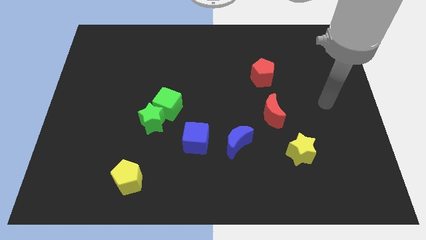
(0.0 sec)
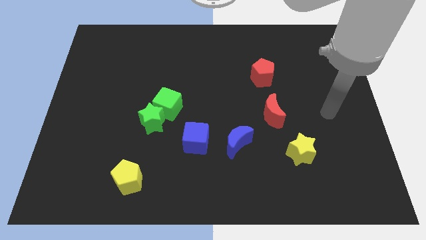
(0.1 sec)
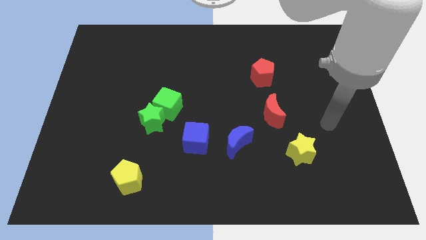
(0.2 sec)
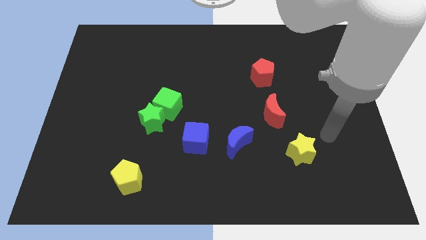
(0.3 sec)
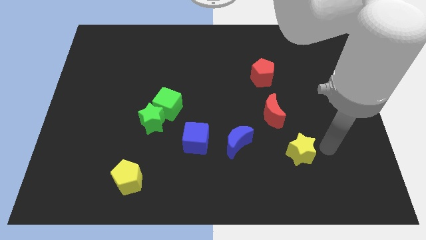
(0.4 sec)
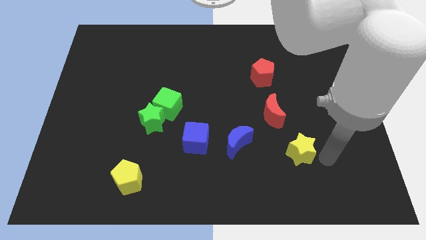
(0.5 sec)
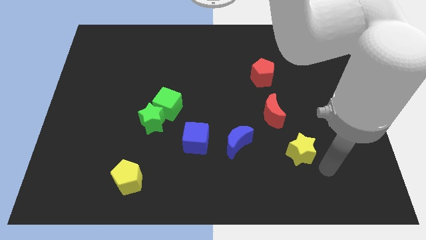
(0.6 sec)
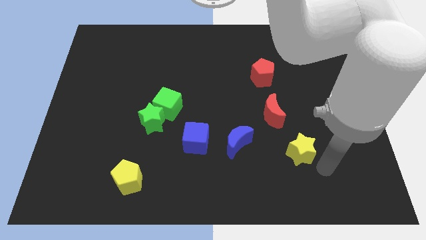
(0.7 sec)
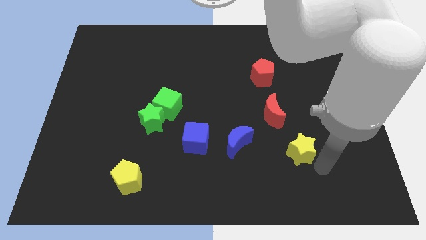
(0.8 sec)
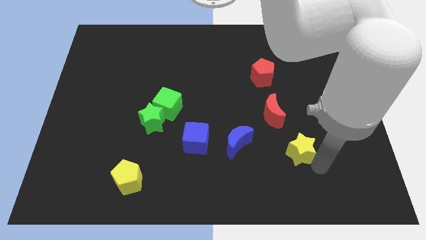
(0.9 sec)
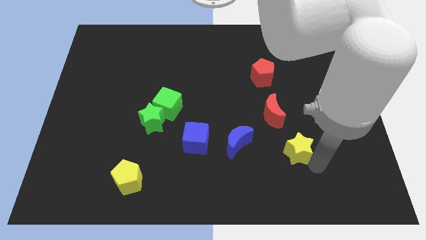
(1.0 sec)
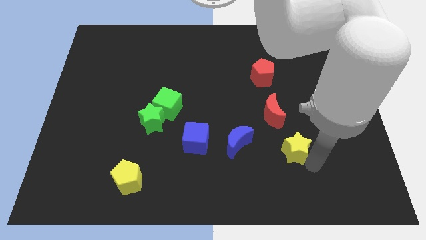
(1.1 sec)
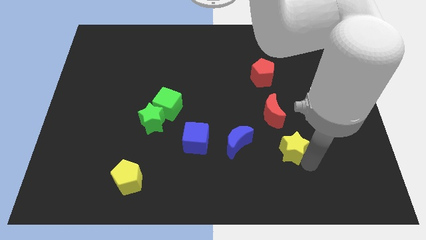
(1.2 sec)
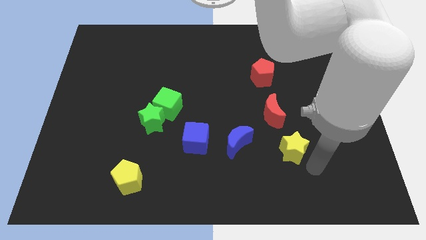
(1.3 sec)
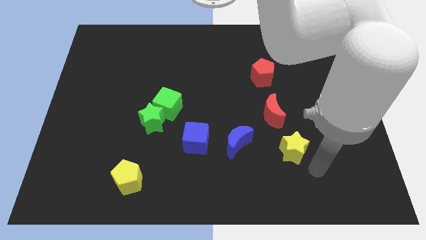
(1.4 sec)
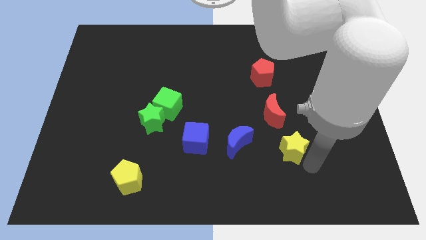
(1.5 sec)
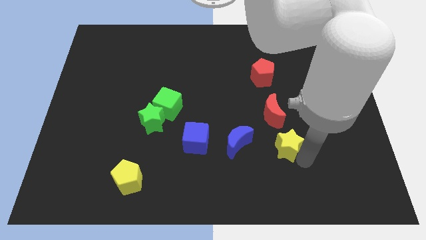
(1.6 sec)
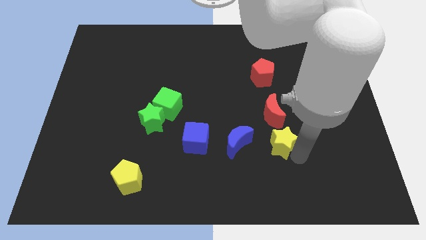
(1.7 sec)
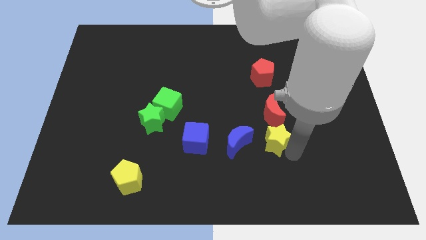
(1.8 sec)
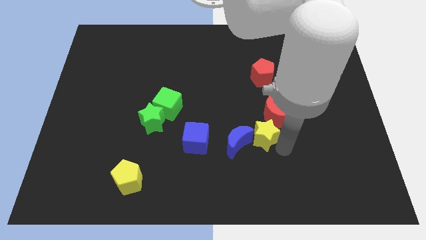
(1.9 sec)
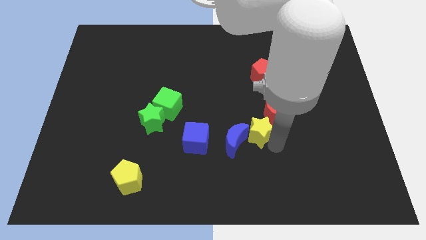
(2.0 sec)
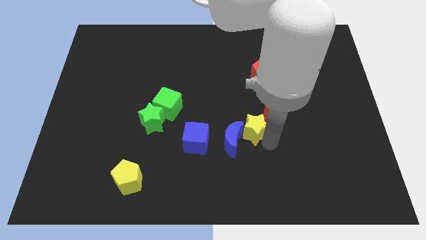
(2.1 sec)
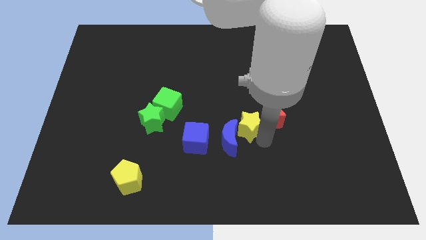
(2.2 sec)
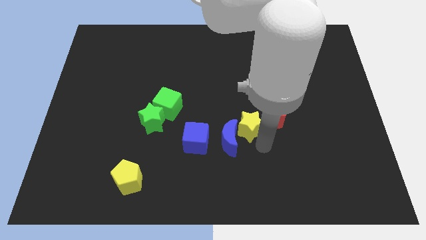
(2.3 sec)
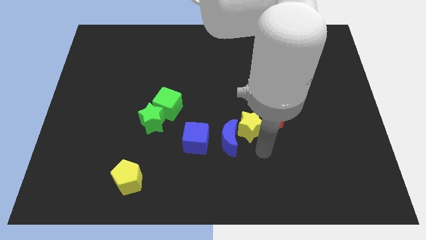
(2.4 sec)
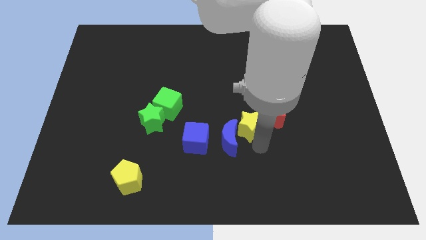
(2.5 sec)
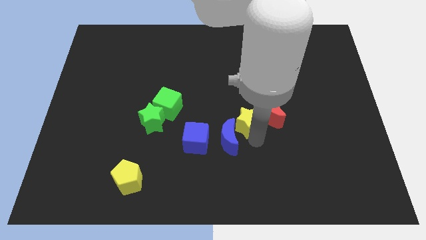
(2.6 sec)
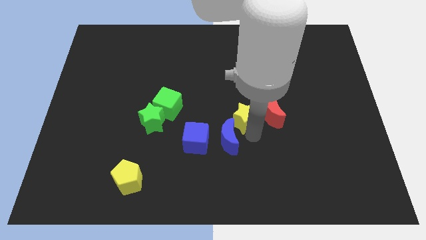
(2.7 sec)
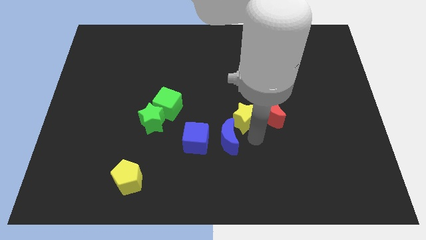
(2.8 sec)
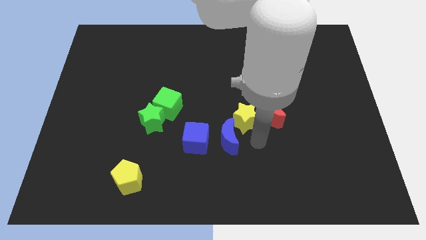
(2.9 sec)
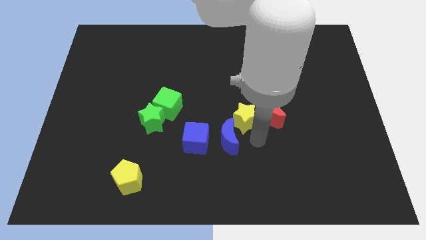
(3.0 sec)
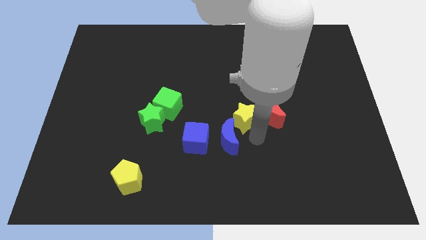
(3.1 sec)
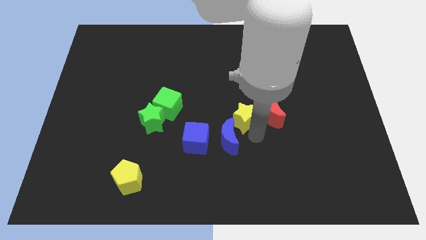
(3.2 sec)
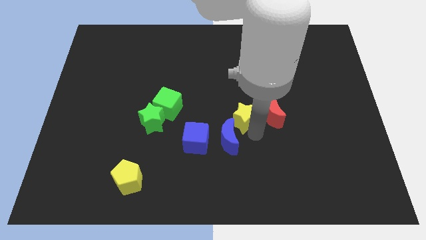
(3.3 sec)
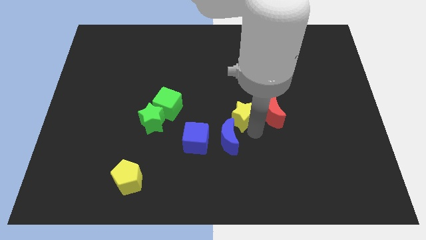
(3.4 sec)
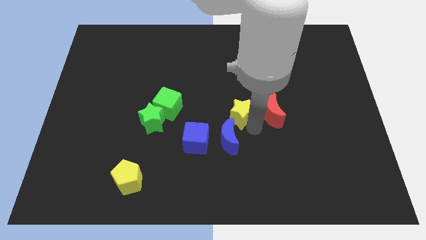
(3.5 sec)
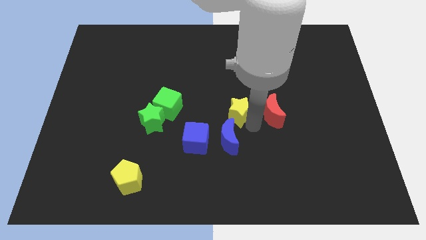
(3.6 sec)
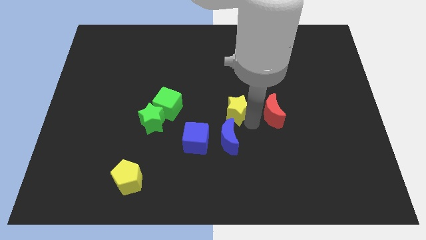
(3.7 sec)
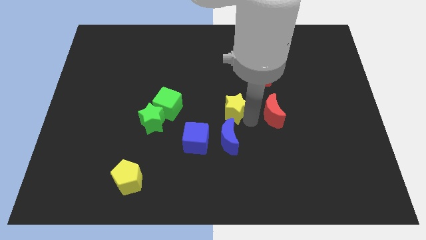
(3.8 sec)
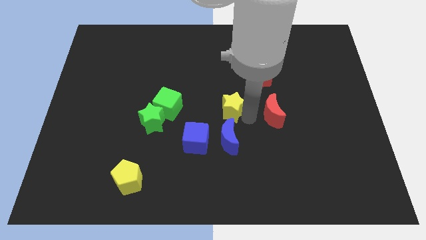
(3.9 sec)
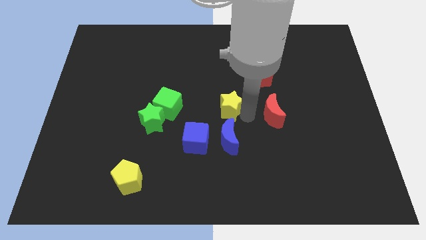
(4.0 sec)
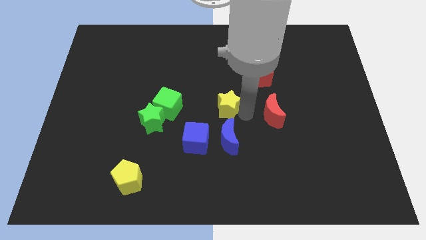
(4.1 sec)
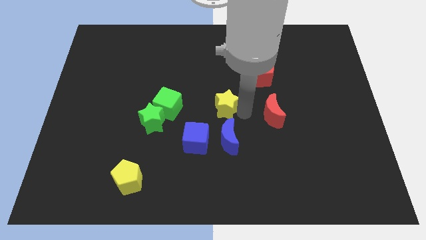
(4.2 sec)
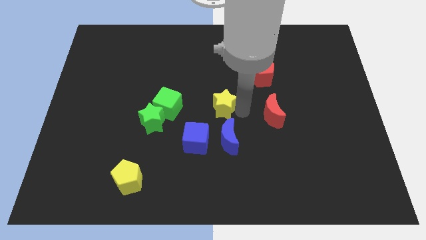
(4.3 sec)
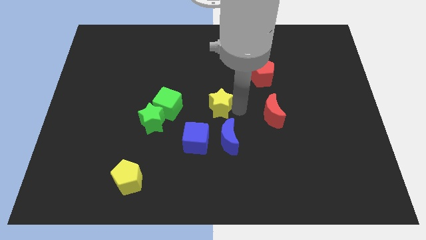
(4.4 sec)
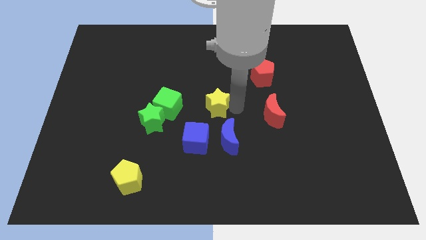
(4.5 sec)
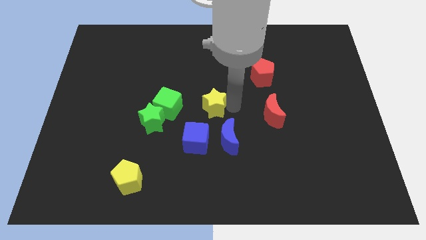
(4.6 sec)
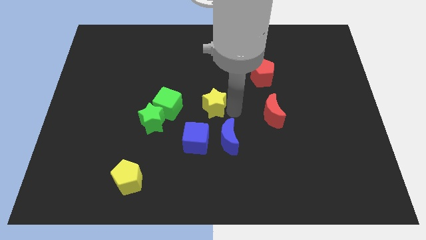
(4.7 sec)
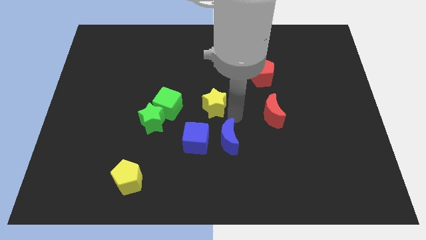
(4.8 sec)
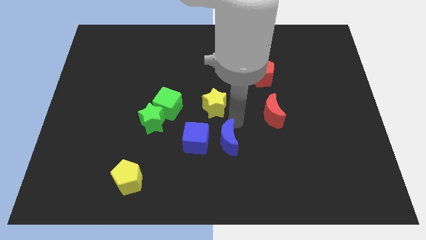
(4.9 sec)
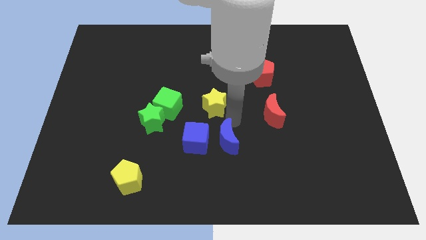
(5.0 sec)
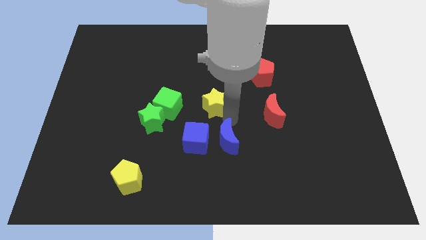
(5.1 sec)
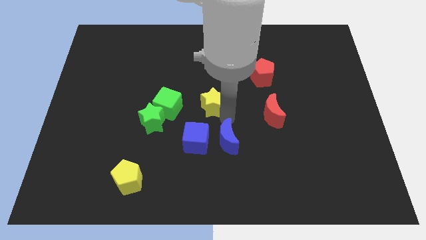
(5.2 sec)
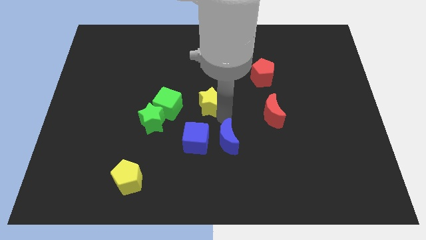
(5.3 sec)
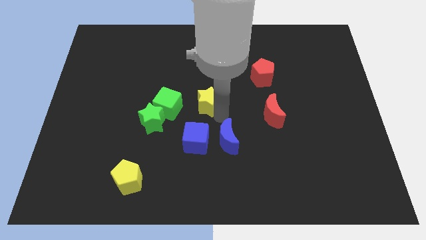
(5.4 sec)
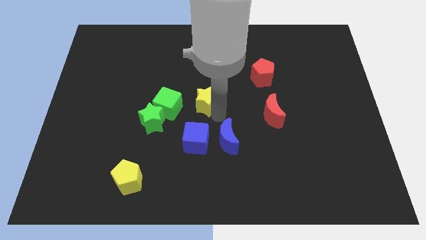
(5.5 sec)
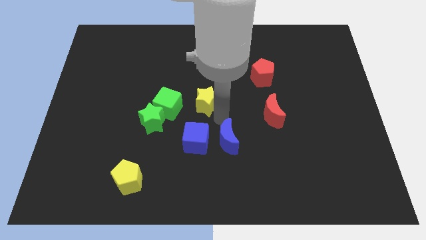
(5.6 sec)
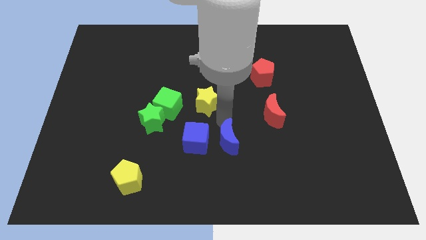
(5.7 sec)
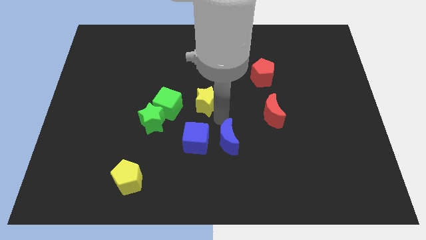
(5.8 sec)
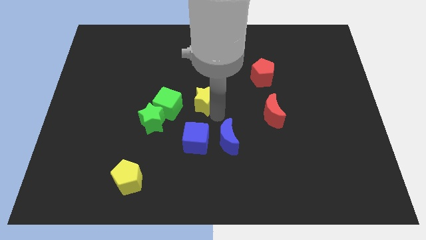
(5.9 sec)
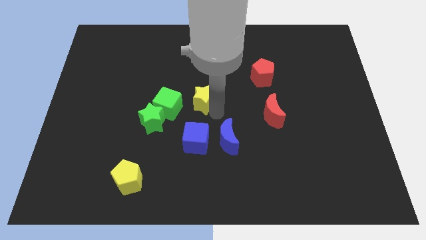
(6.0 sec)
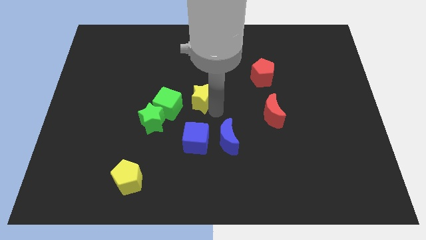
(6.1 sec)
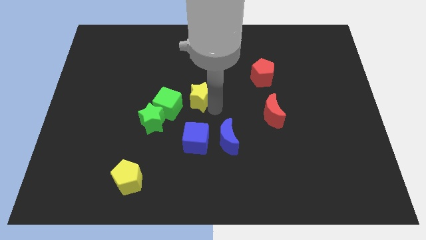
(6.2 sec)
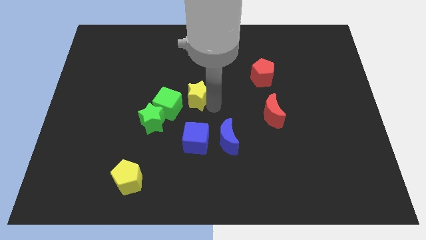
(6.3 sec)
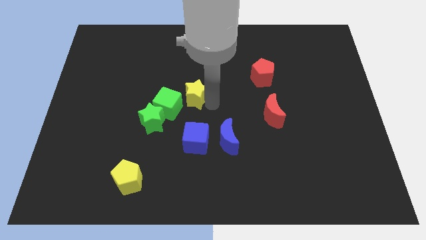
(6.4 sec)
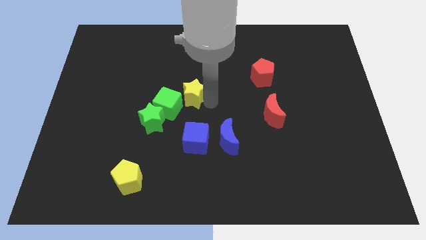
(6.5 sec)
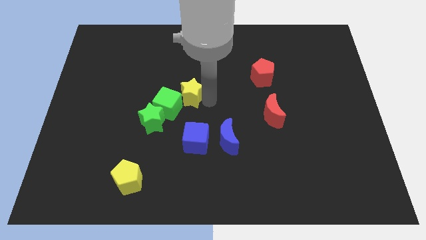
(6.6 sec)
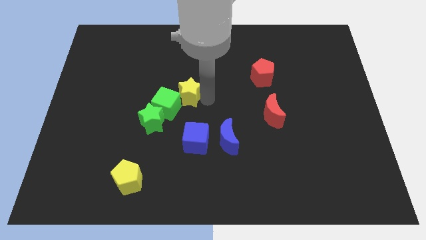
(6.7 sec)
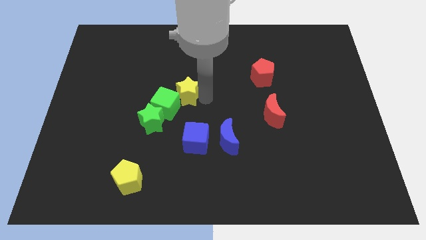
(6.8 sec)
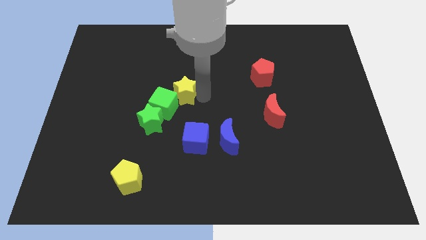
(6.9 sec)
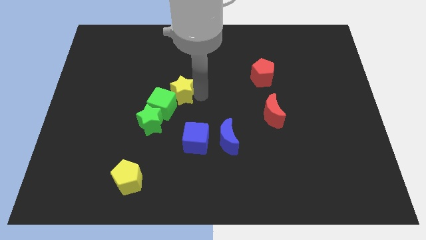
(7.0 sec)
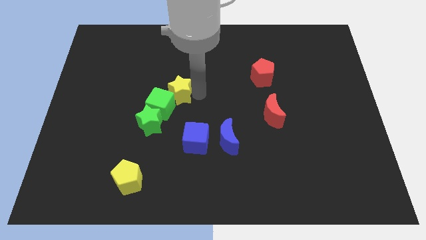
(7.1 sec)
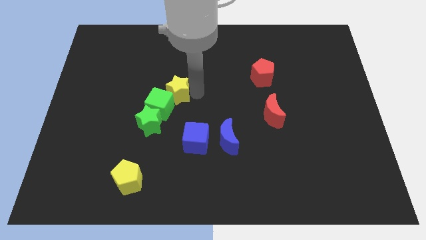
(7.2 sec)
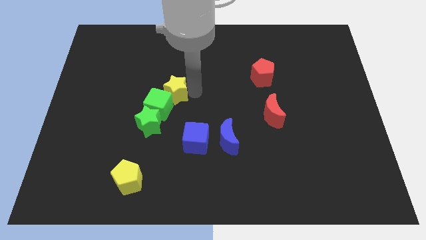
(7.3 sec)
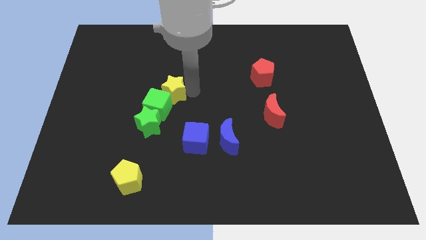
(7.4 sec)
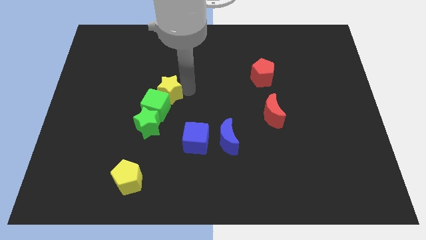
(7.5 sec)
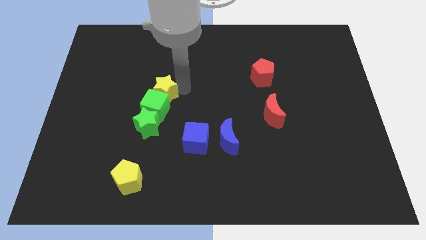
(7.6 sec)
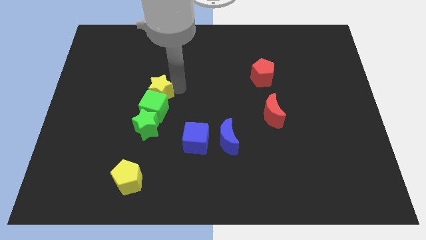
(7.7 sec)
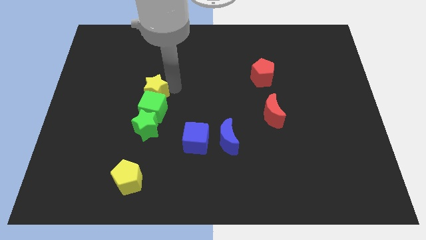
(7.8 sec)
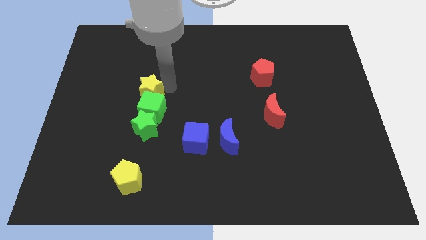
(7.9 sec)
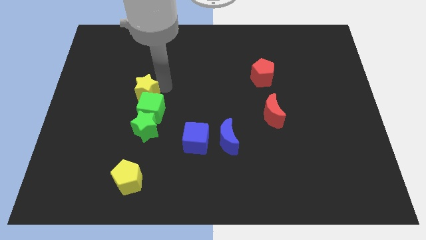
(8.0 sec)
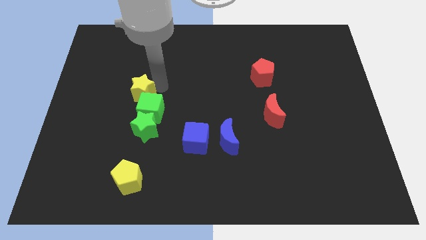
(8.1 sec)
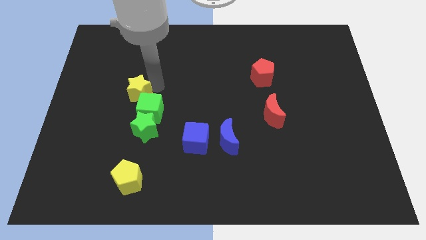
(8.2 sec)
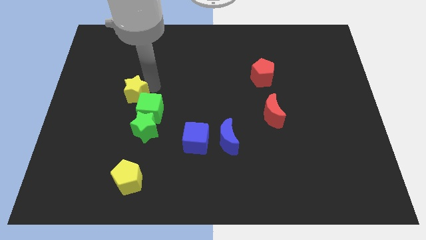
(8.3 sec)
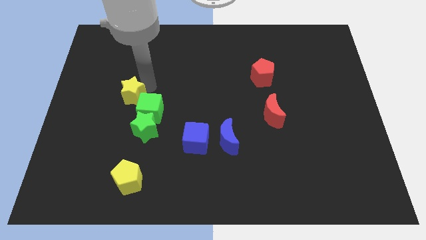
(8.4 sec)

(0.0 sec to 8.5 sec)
slide the yellow star just left of the green cube
